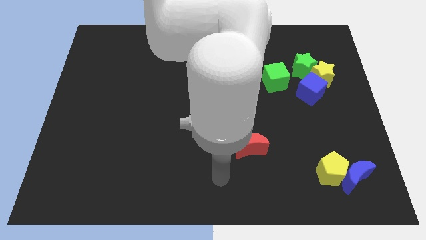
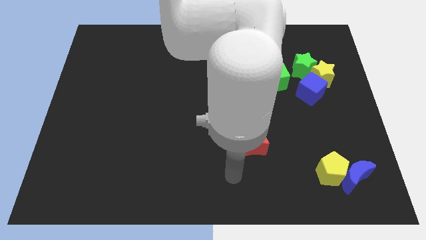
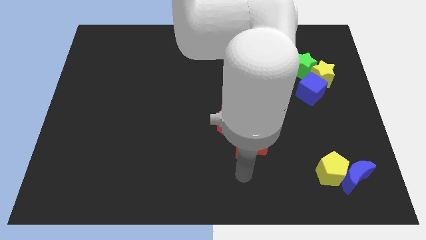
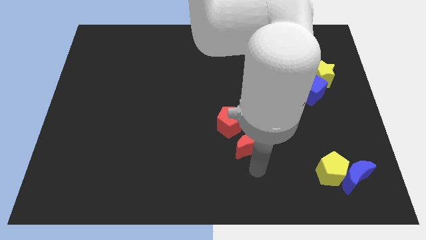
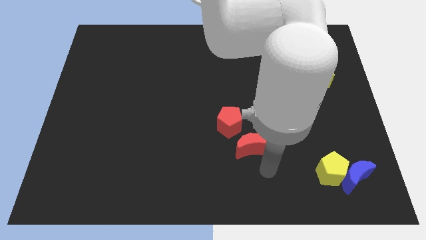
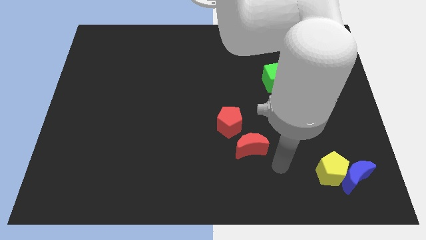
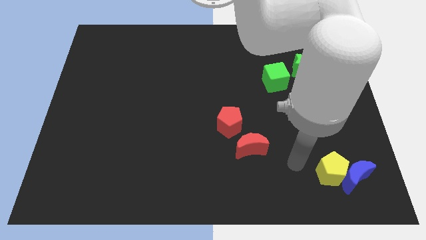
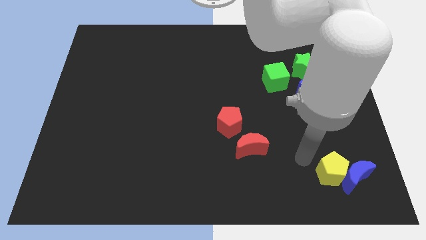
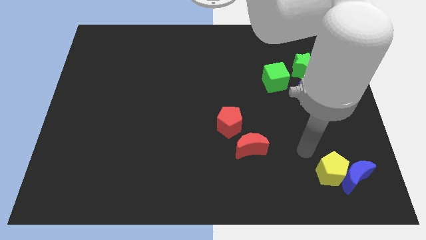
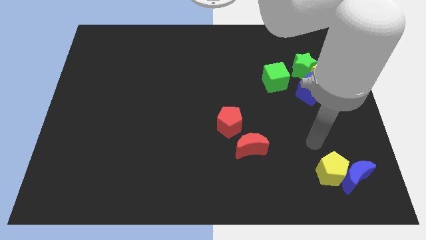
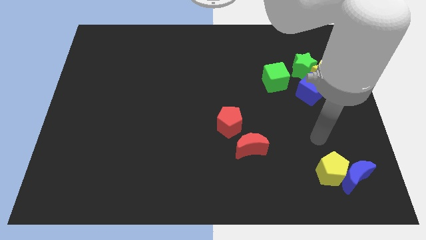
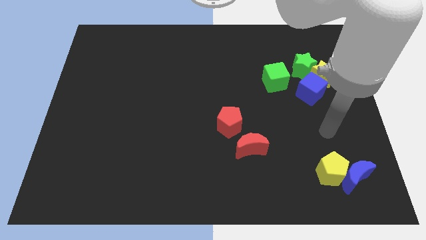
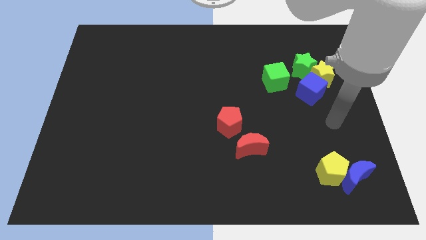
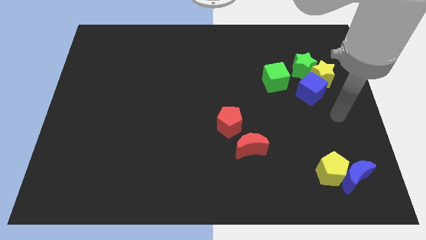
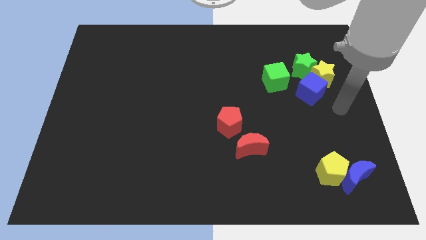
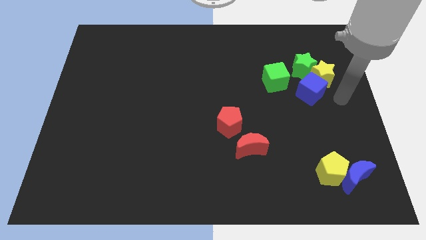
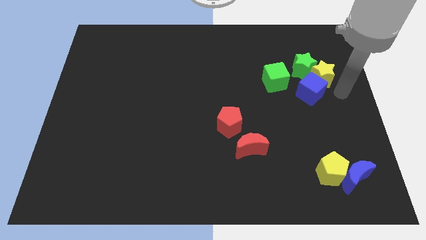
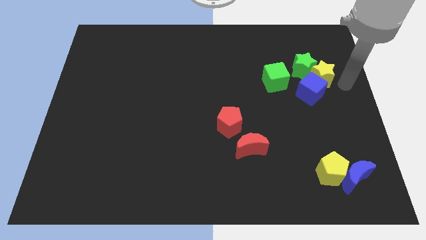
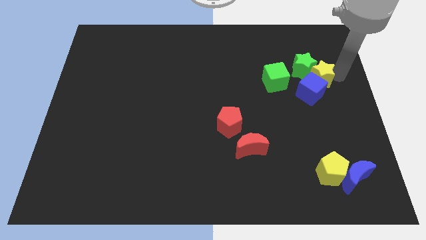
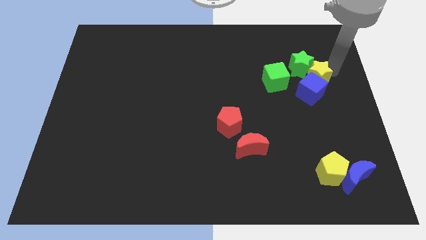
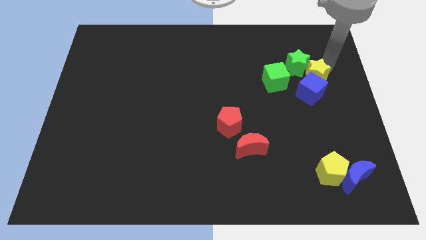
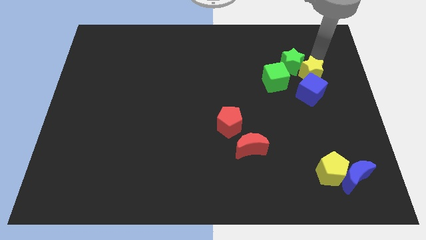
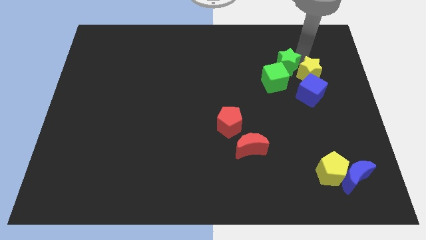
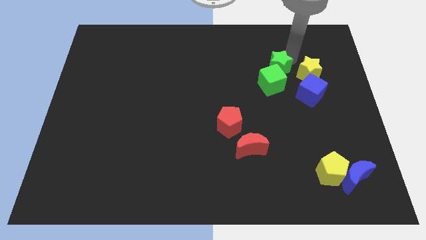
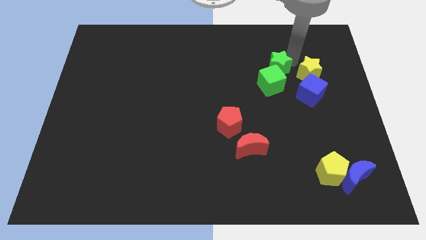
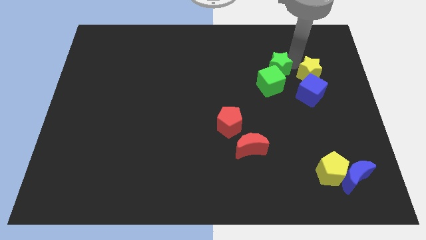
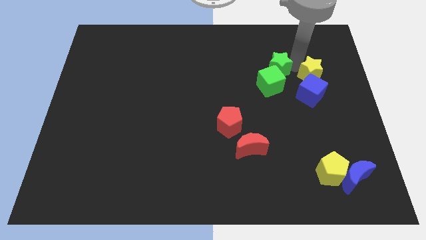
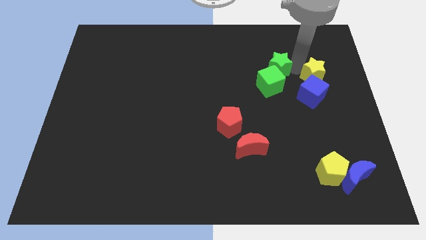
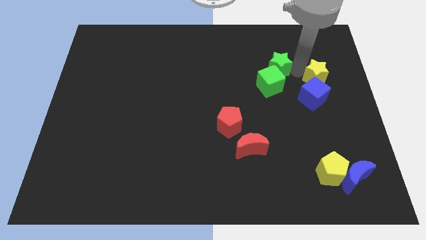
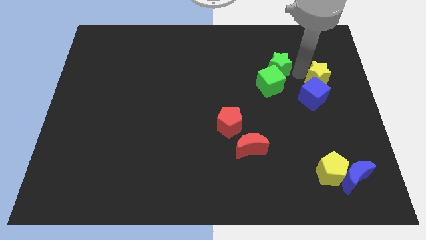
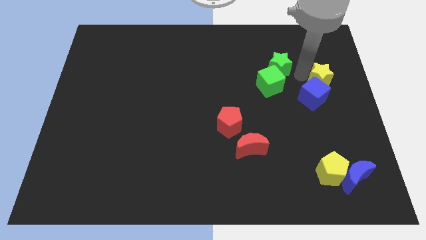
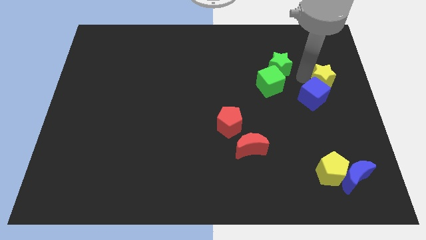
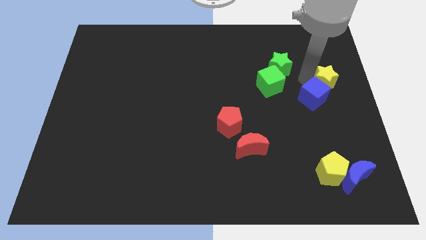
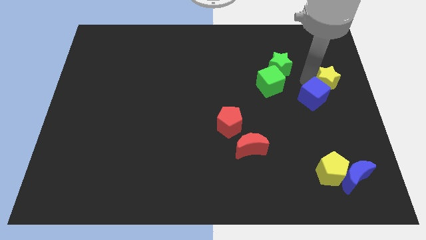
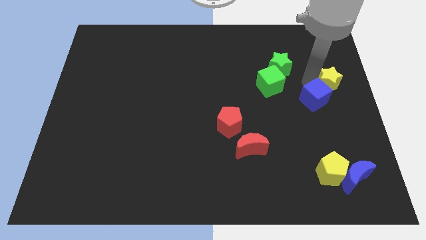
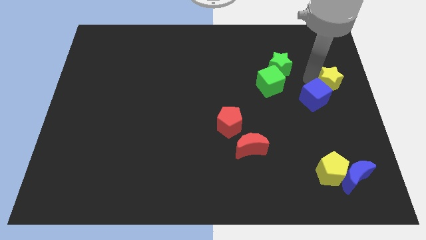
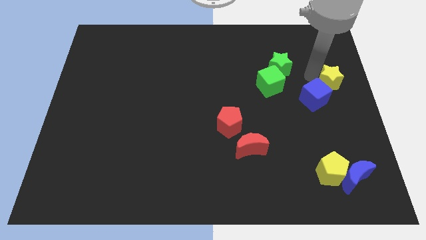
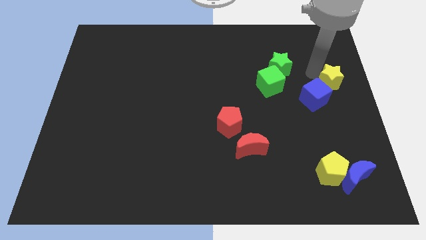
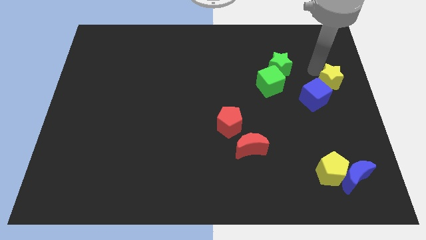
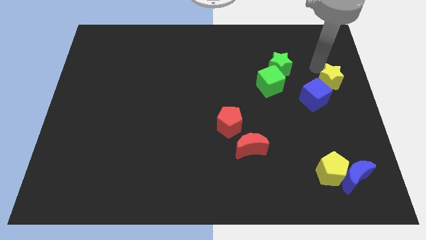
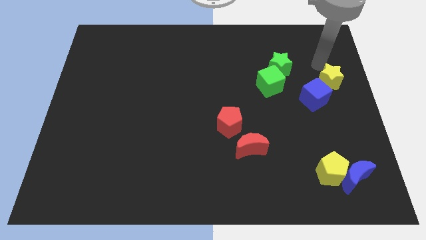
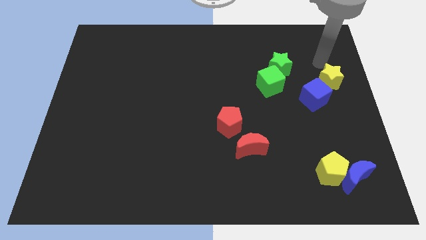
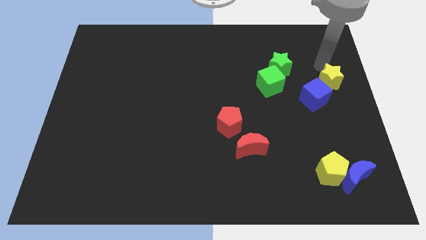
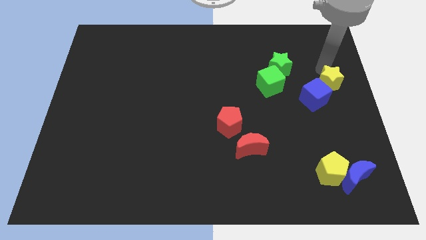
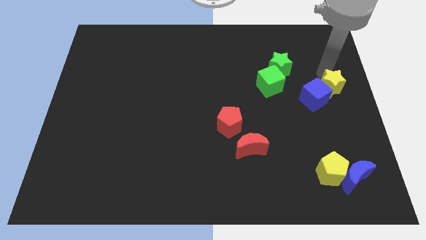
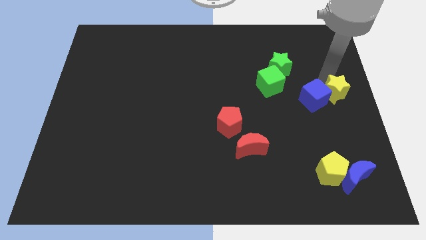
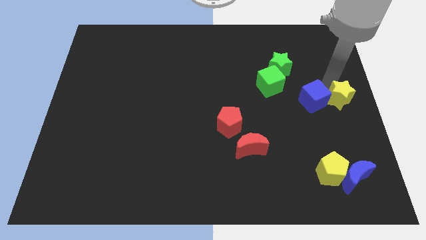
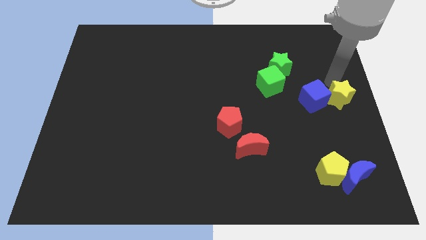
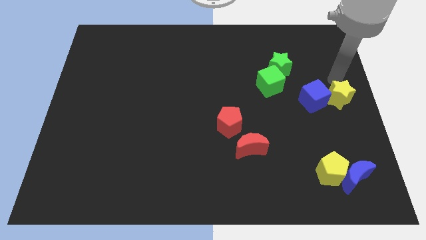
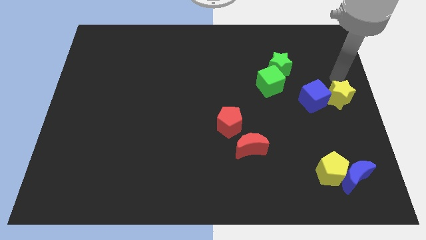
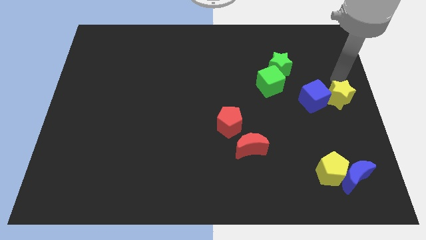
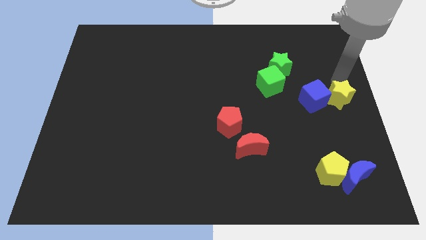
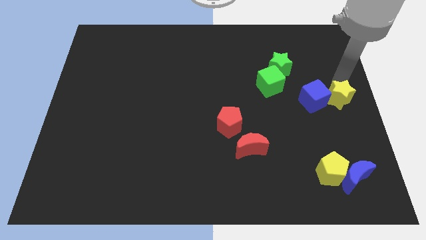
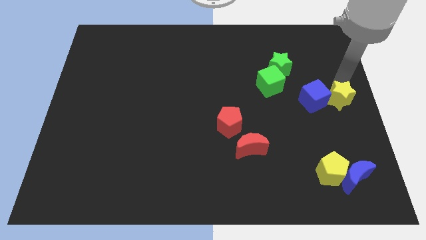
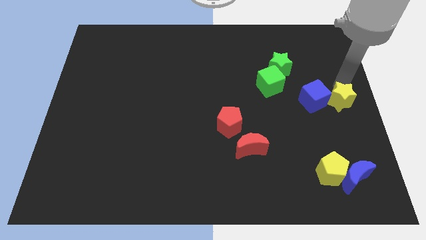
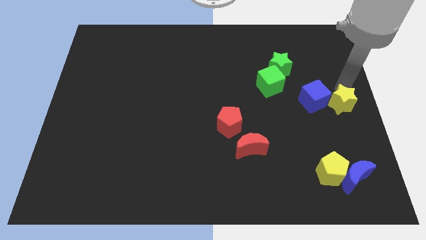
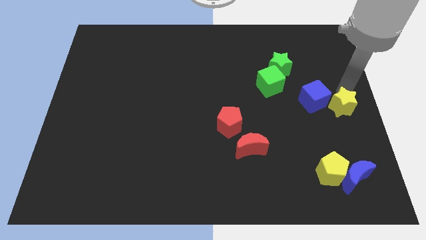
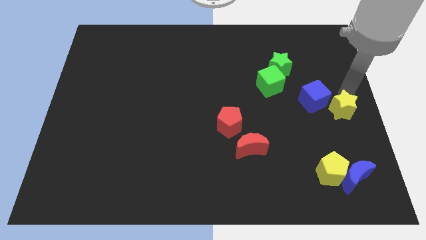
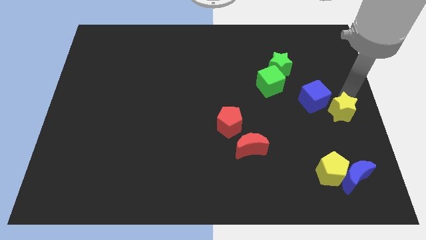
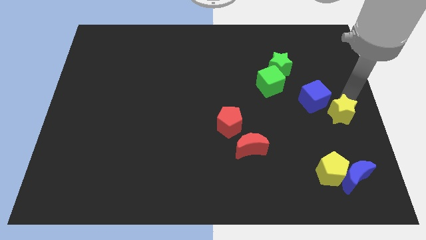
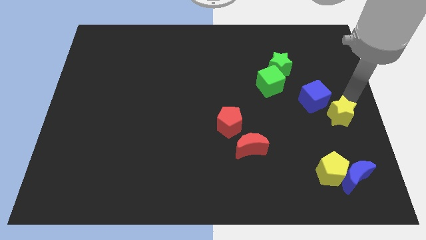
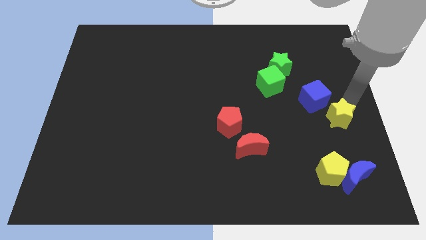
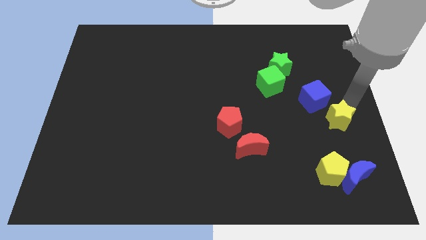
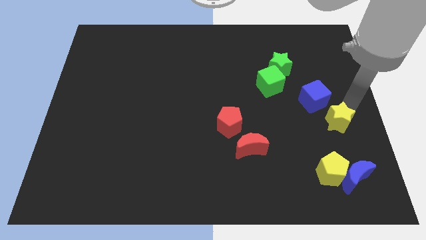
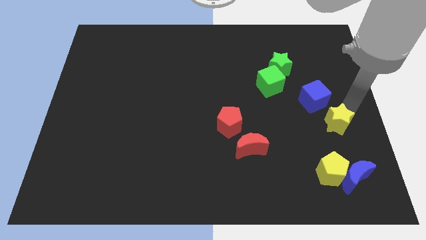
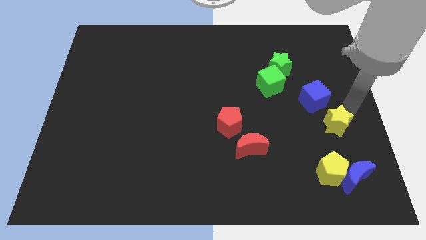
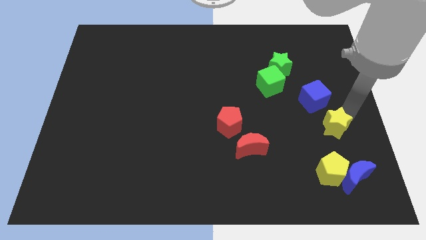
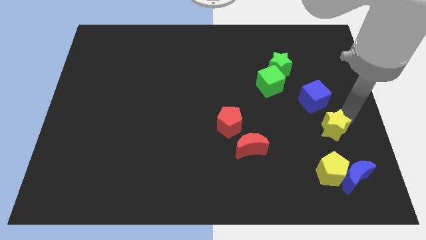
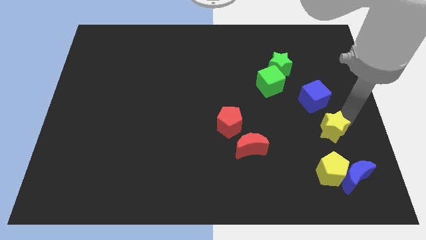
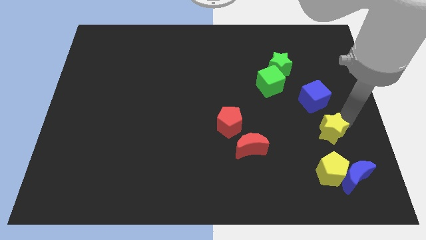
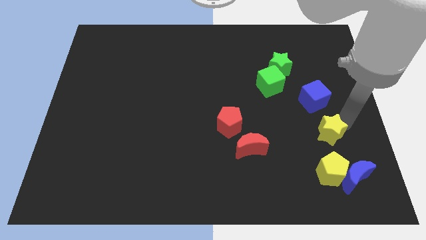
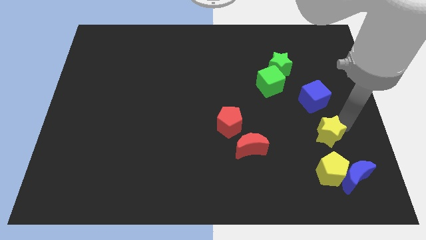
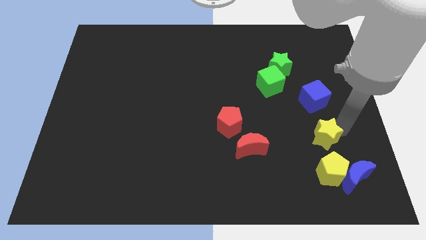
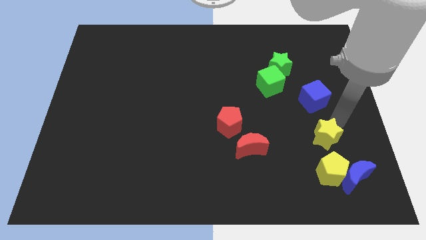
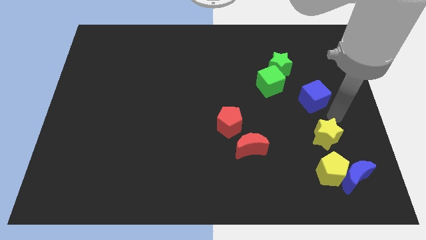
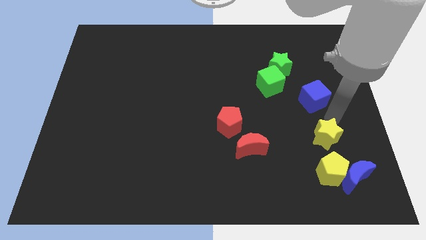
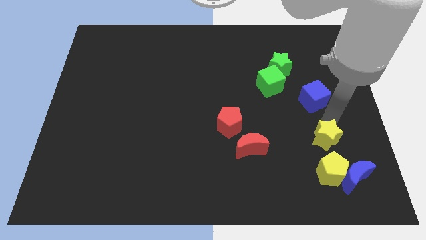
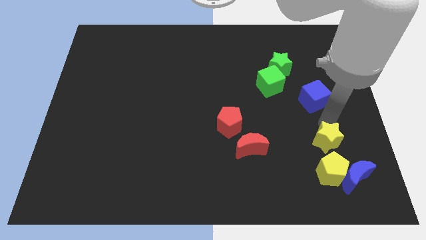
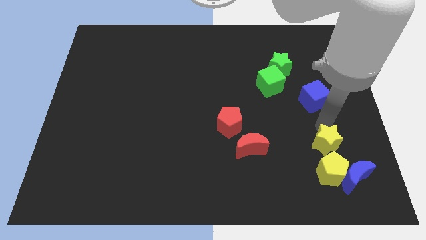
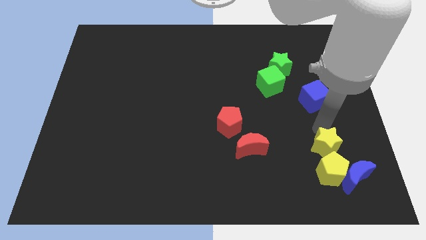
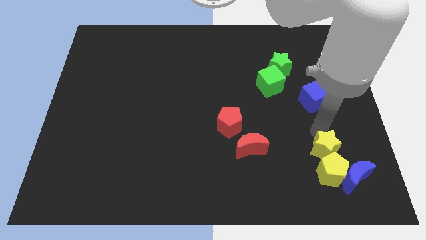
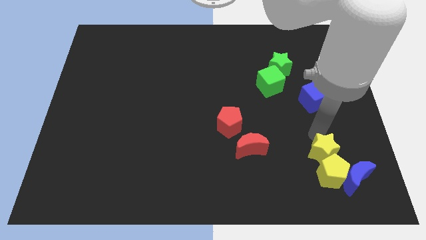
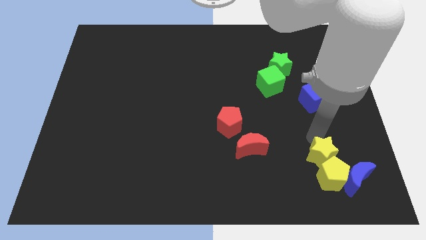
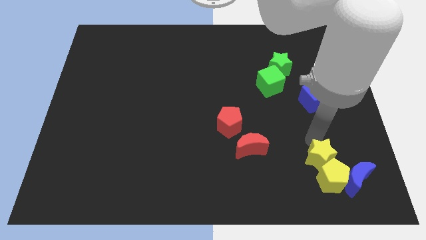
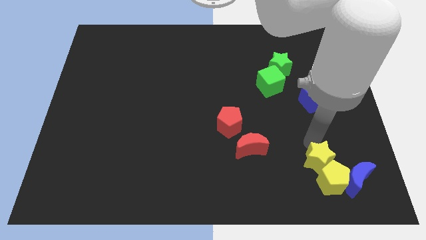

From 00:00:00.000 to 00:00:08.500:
put the yellow star to the left side of the blue moon
